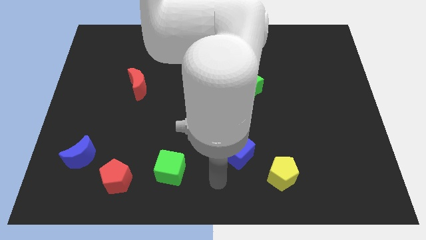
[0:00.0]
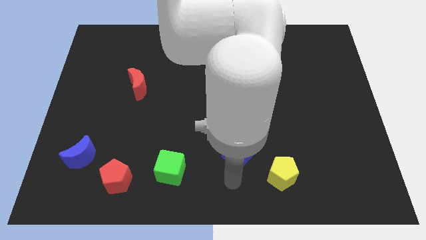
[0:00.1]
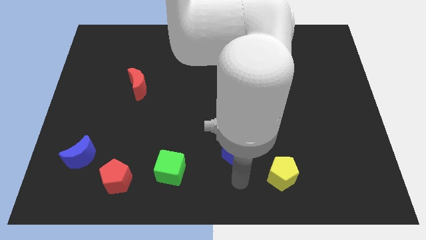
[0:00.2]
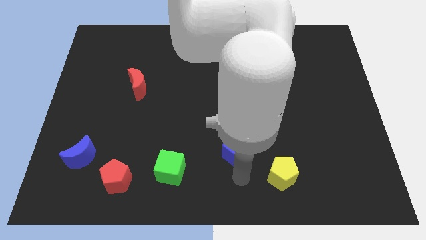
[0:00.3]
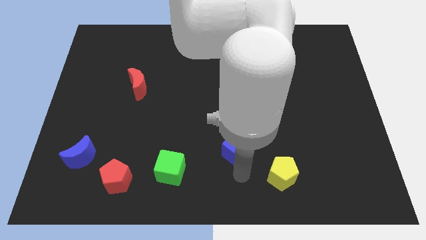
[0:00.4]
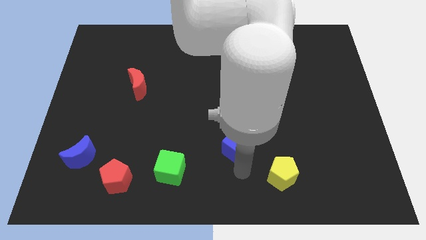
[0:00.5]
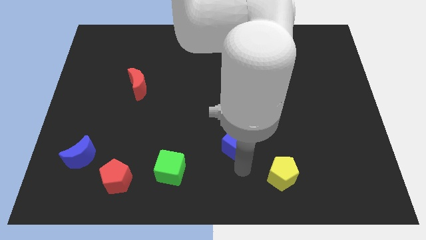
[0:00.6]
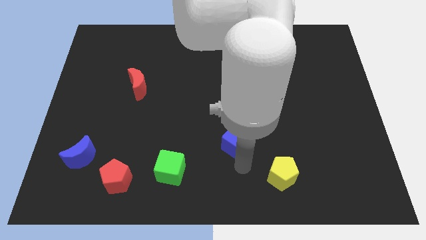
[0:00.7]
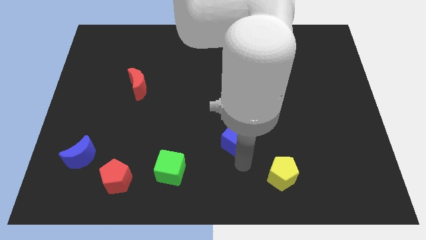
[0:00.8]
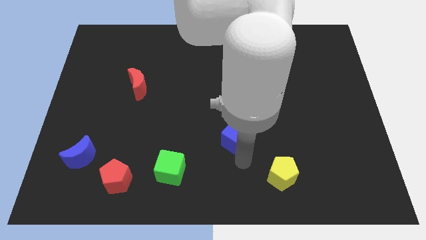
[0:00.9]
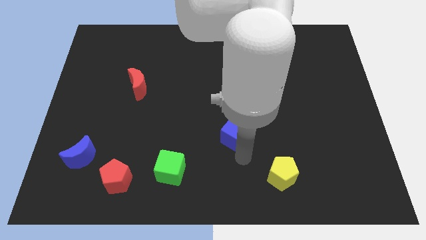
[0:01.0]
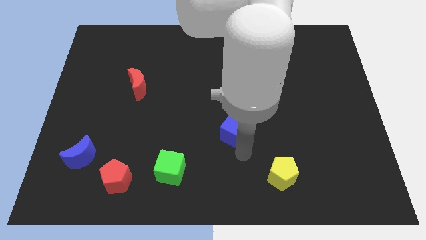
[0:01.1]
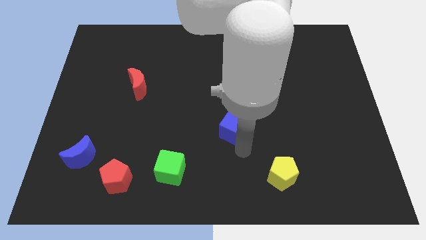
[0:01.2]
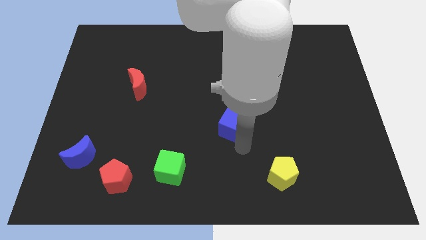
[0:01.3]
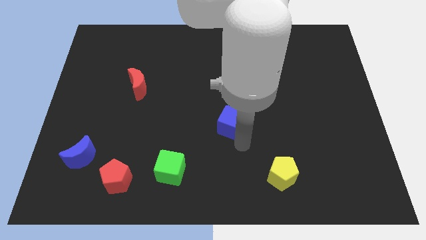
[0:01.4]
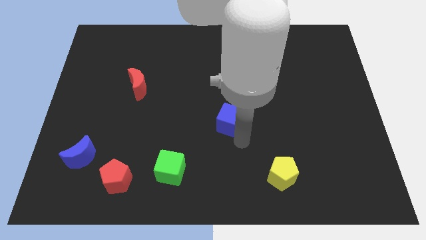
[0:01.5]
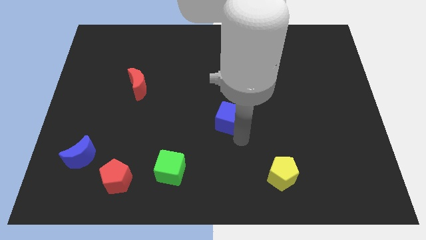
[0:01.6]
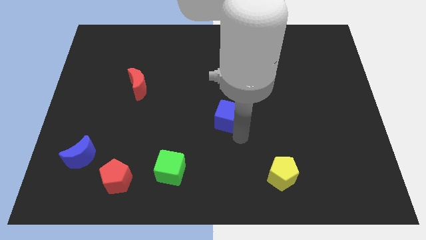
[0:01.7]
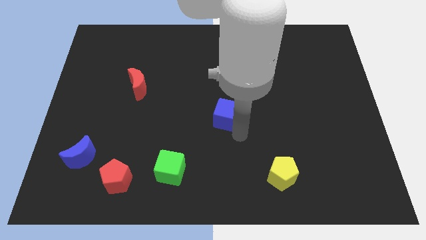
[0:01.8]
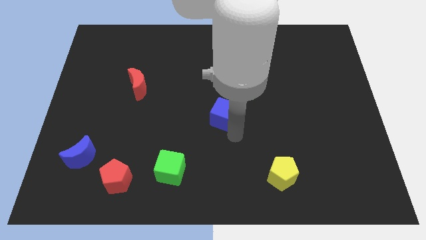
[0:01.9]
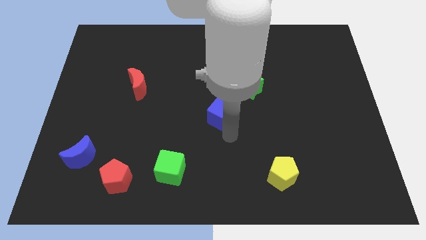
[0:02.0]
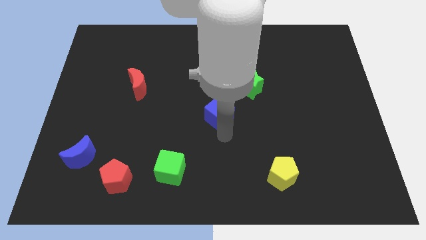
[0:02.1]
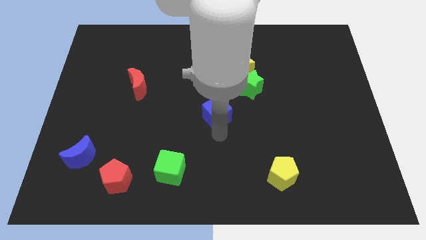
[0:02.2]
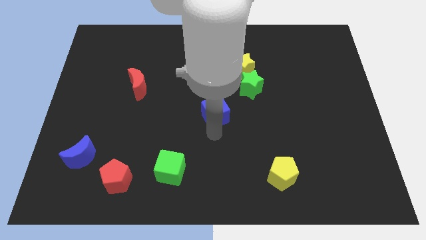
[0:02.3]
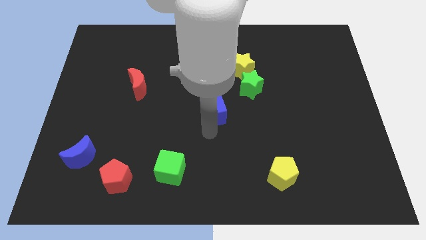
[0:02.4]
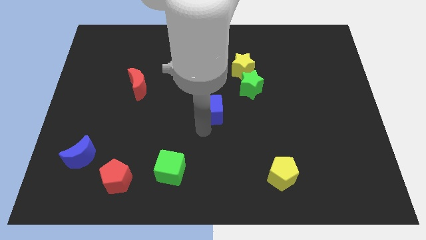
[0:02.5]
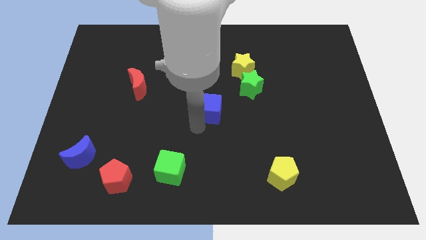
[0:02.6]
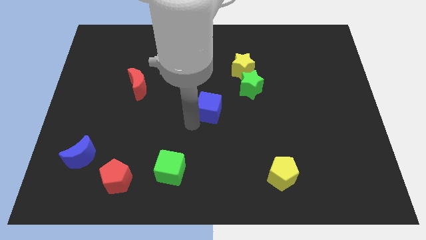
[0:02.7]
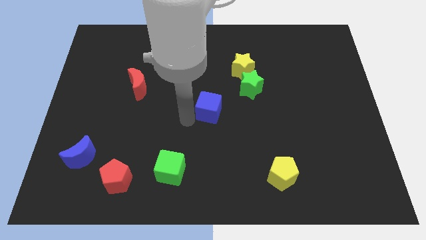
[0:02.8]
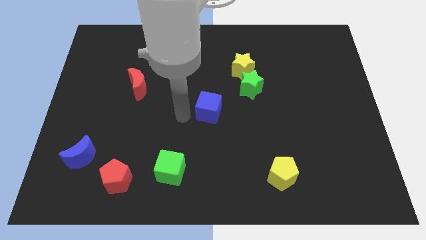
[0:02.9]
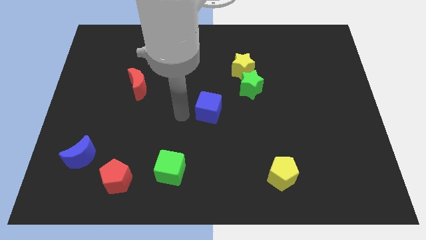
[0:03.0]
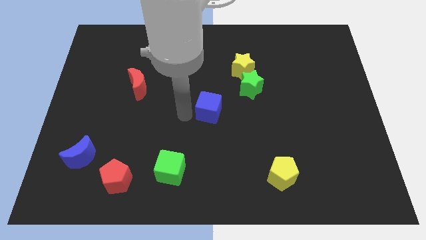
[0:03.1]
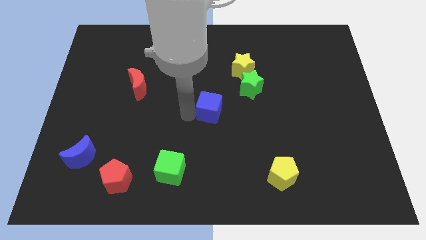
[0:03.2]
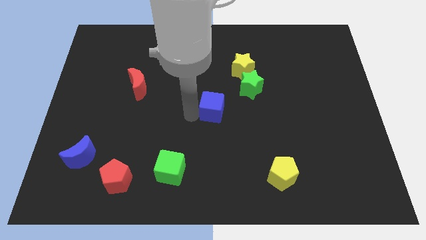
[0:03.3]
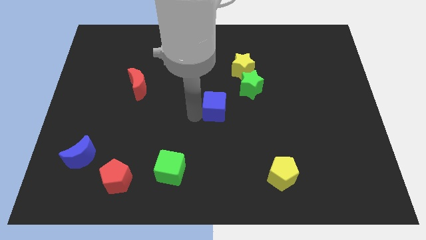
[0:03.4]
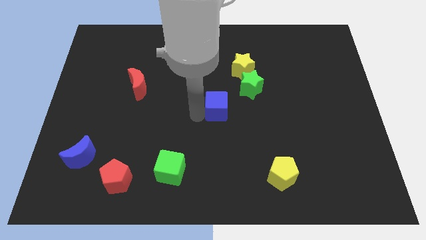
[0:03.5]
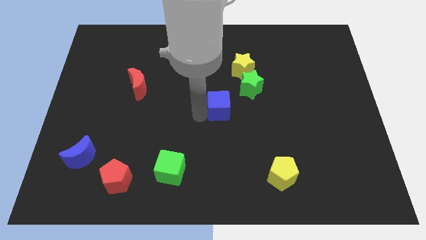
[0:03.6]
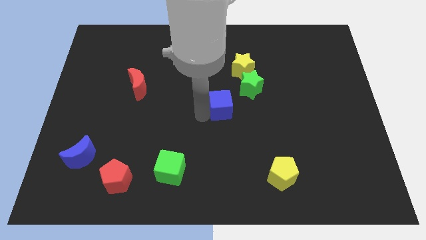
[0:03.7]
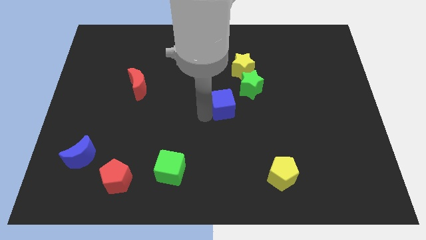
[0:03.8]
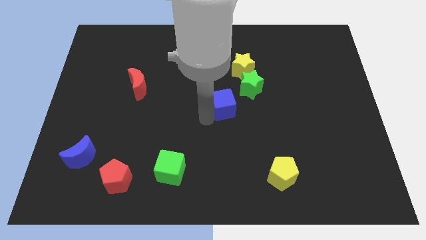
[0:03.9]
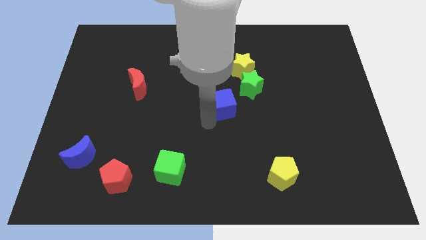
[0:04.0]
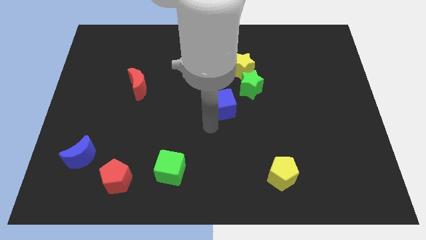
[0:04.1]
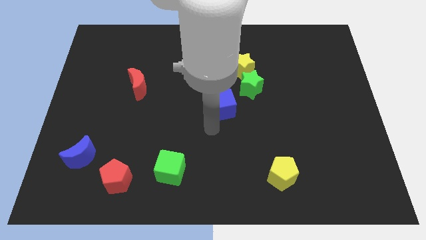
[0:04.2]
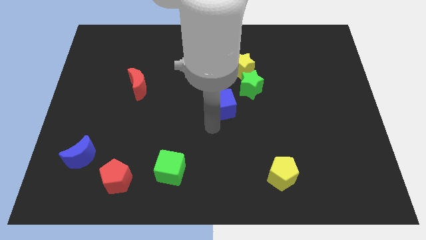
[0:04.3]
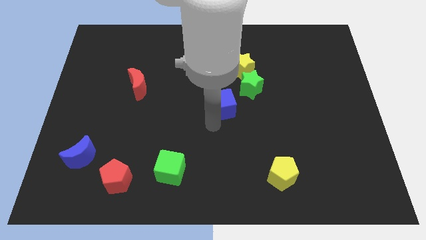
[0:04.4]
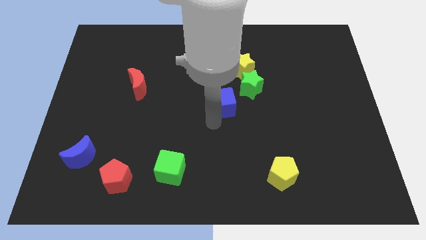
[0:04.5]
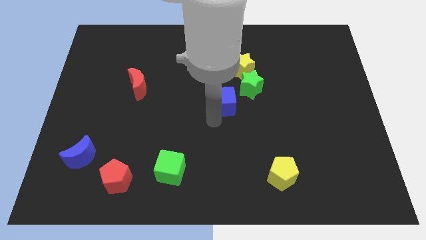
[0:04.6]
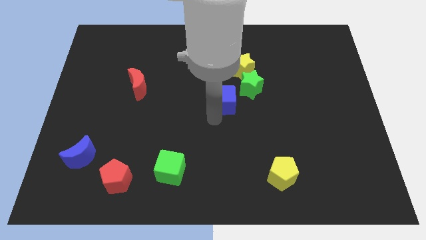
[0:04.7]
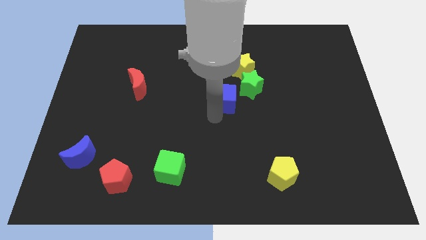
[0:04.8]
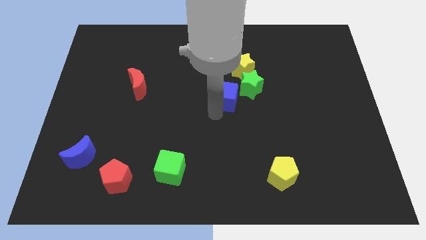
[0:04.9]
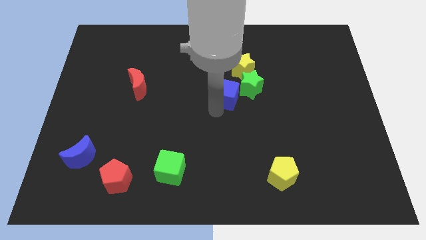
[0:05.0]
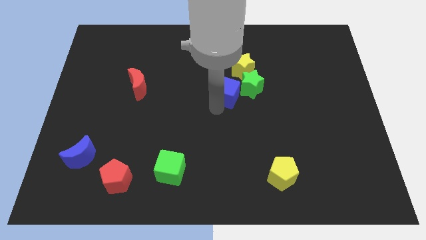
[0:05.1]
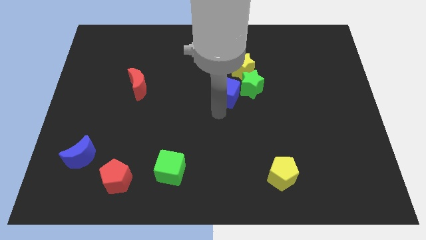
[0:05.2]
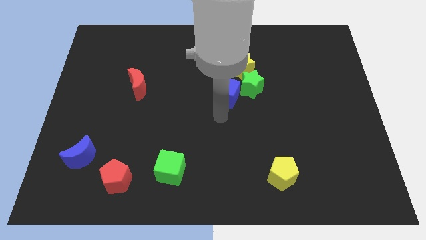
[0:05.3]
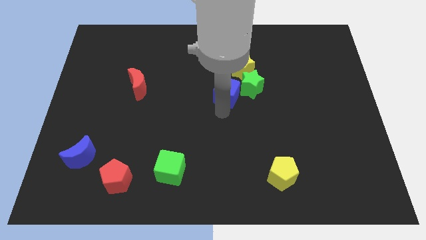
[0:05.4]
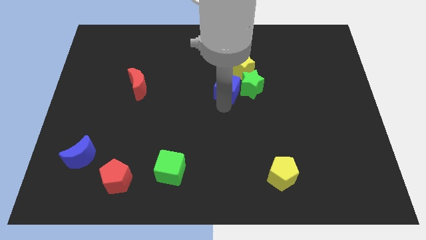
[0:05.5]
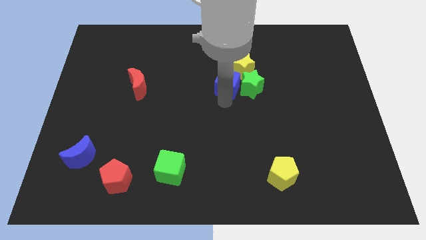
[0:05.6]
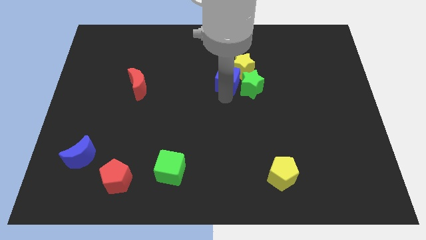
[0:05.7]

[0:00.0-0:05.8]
push the blue cube close to the yellow star

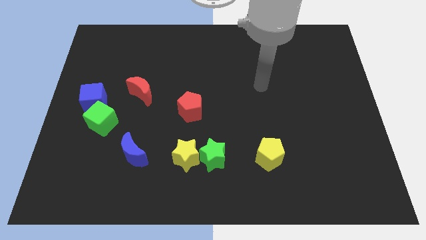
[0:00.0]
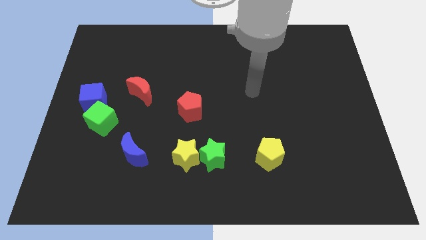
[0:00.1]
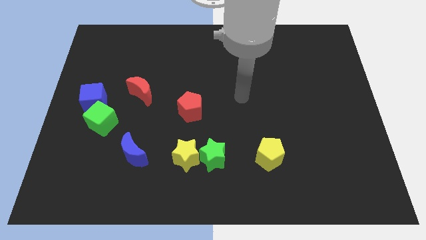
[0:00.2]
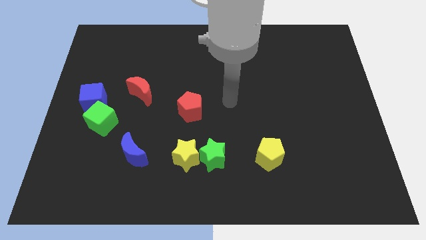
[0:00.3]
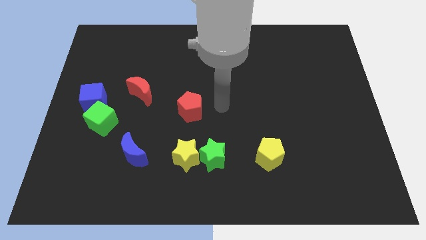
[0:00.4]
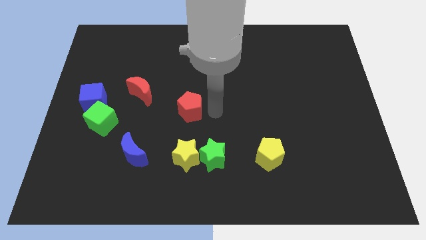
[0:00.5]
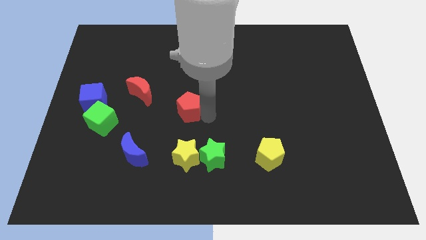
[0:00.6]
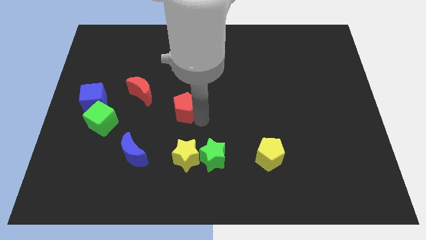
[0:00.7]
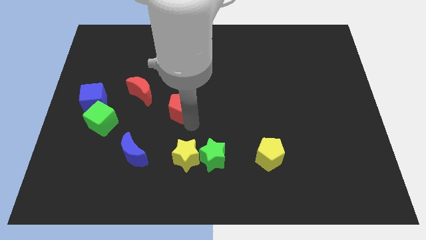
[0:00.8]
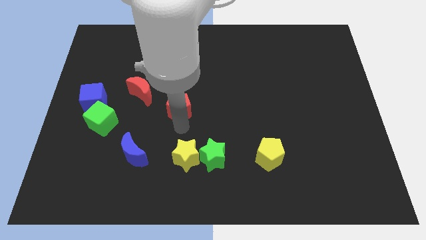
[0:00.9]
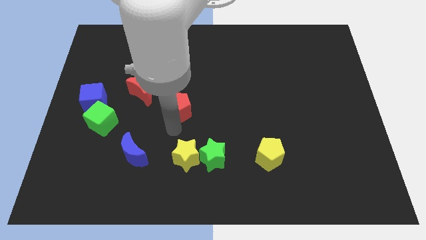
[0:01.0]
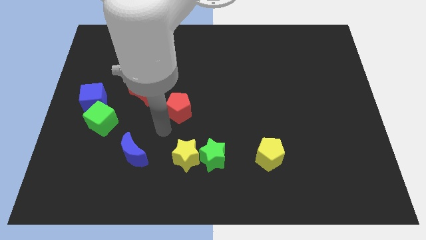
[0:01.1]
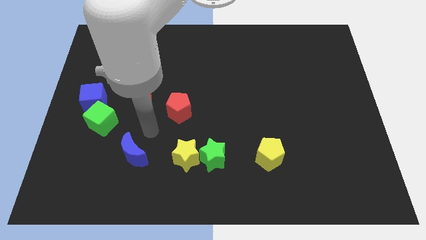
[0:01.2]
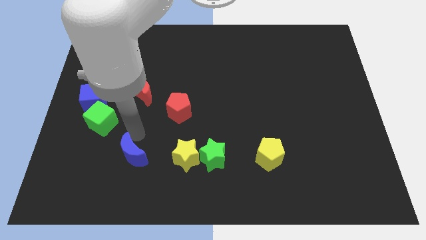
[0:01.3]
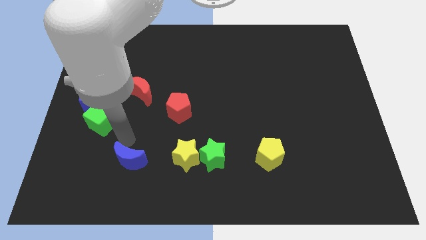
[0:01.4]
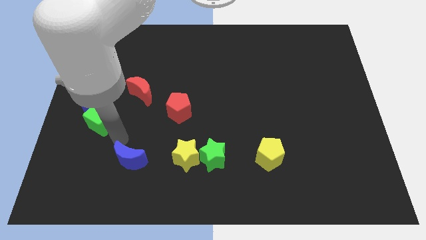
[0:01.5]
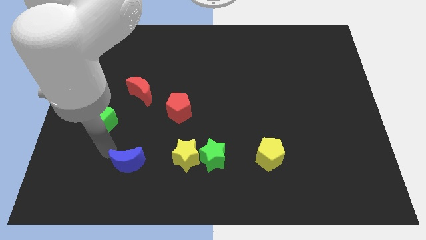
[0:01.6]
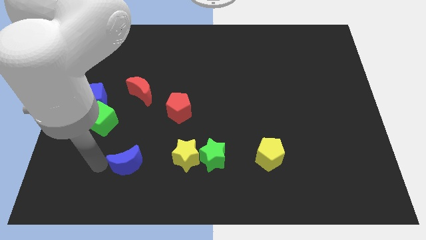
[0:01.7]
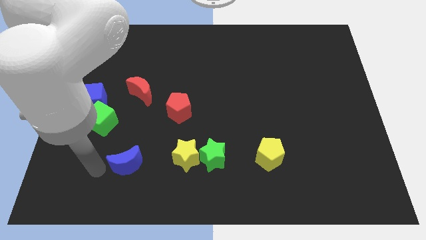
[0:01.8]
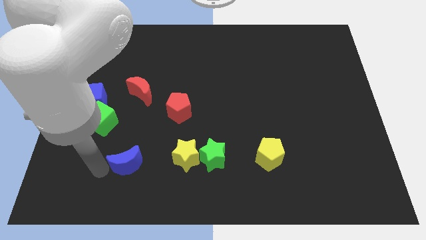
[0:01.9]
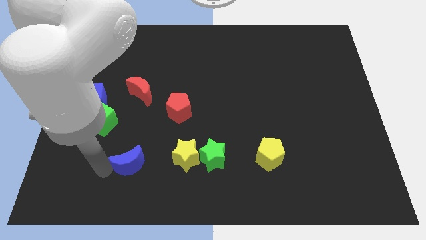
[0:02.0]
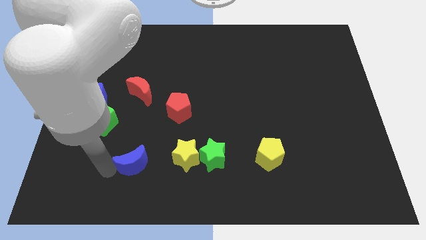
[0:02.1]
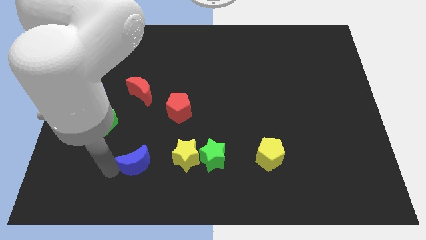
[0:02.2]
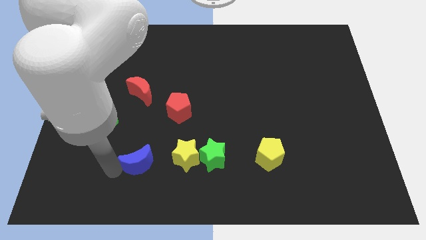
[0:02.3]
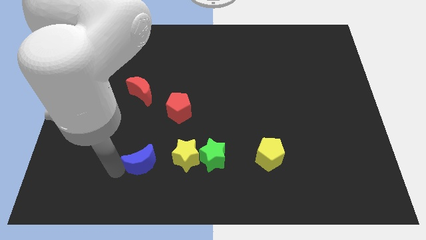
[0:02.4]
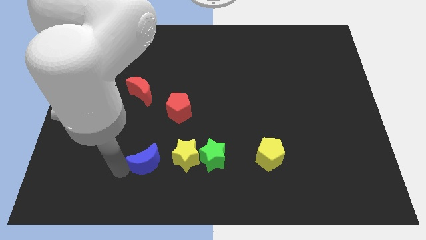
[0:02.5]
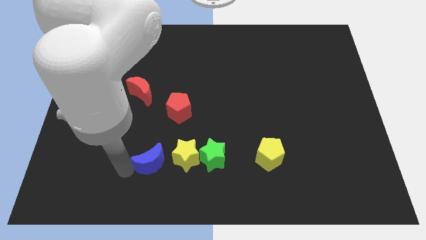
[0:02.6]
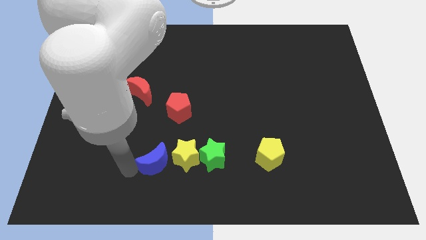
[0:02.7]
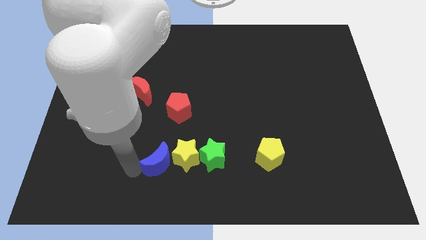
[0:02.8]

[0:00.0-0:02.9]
push the blue moon to the yellow star
